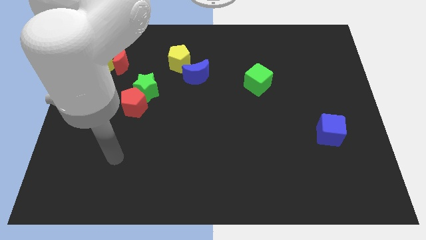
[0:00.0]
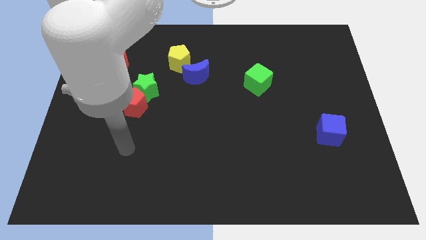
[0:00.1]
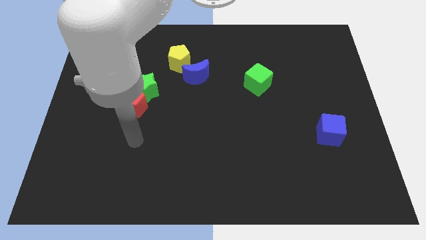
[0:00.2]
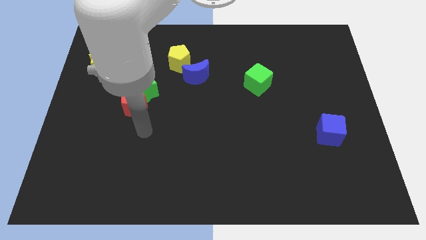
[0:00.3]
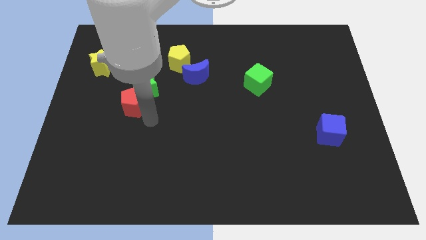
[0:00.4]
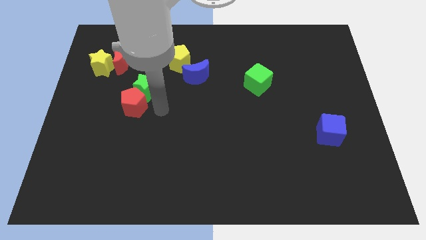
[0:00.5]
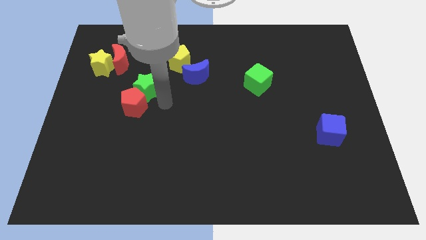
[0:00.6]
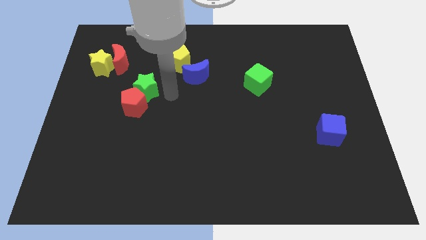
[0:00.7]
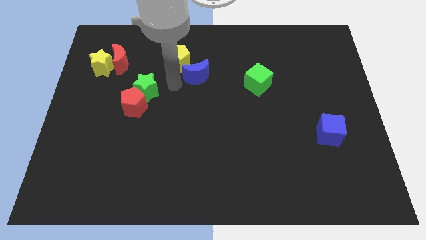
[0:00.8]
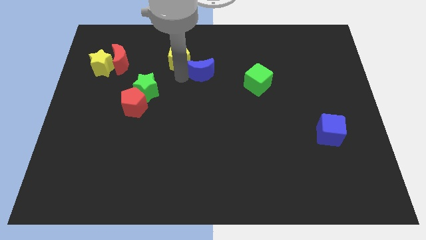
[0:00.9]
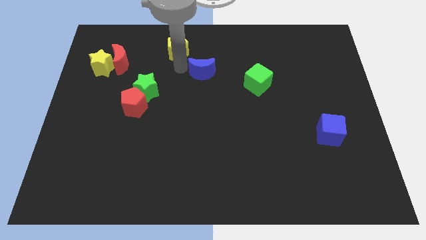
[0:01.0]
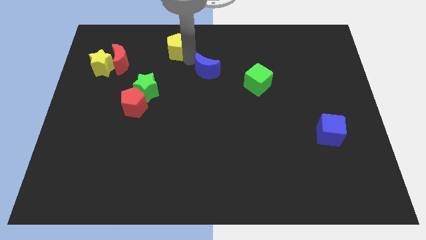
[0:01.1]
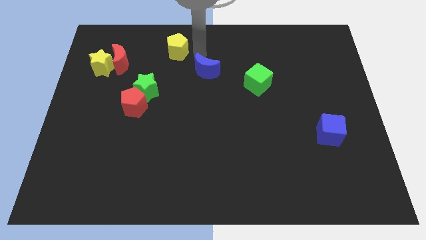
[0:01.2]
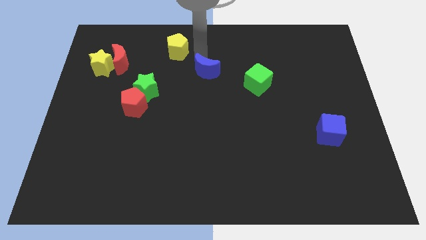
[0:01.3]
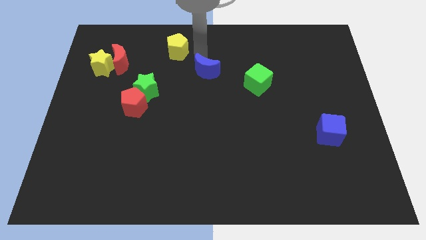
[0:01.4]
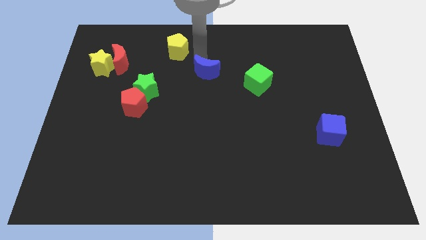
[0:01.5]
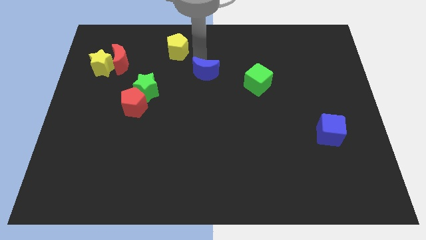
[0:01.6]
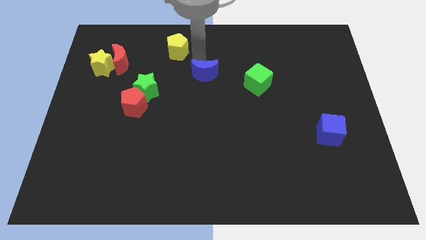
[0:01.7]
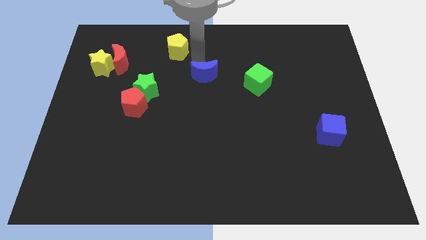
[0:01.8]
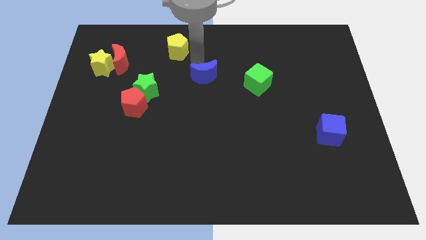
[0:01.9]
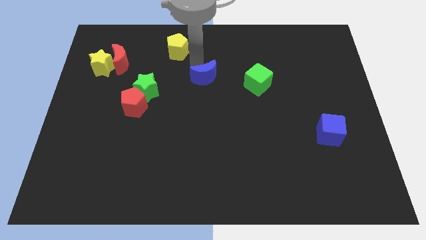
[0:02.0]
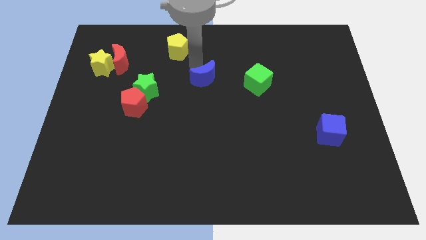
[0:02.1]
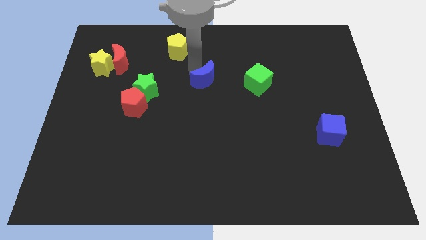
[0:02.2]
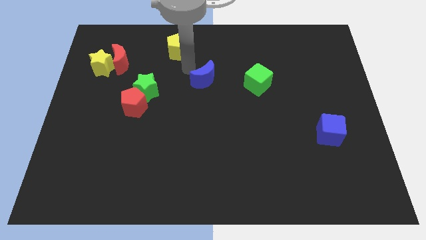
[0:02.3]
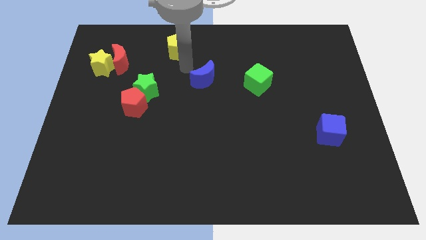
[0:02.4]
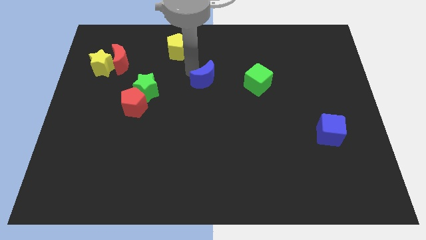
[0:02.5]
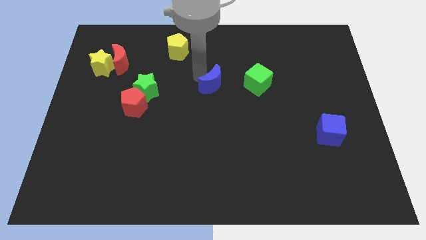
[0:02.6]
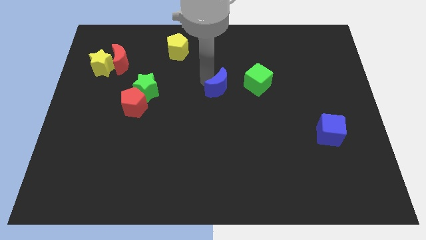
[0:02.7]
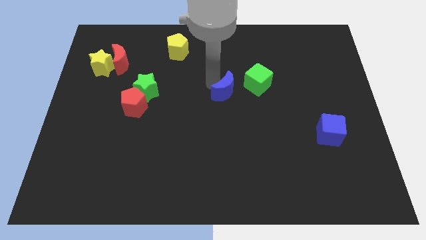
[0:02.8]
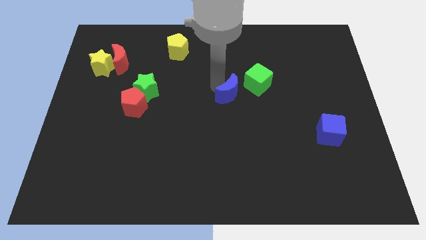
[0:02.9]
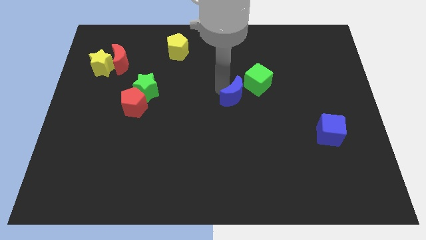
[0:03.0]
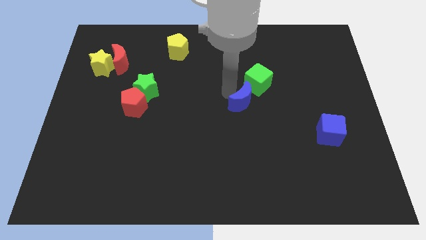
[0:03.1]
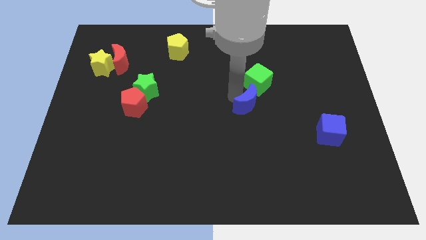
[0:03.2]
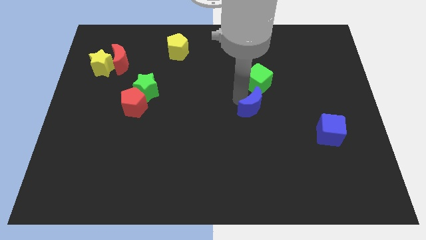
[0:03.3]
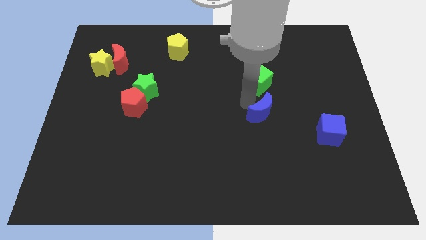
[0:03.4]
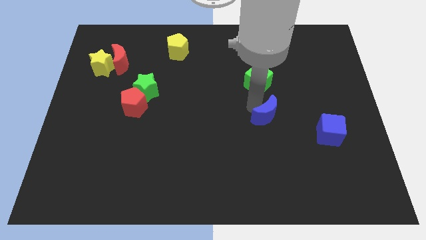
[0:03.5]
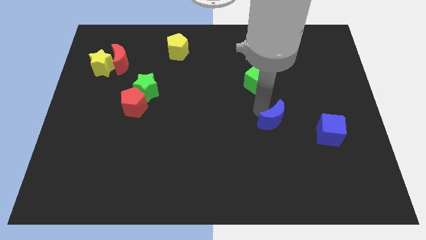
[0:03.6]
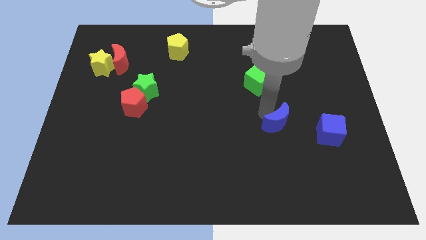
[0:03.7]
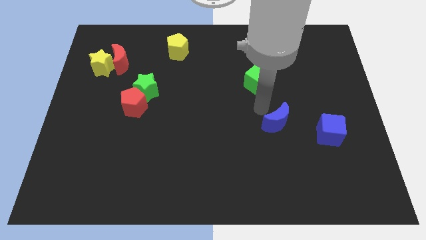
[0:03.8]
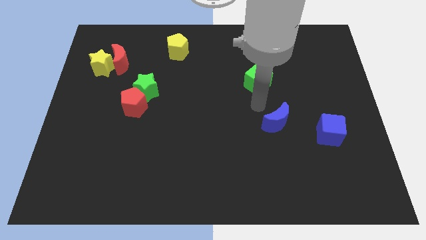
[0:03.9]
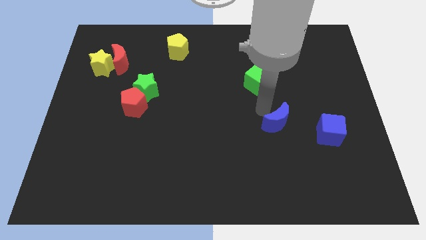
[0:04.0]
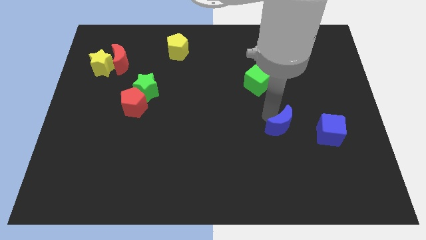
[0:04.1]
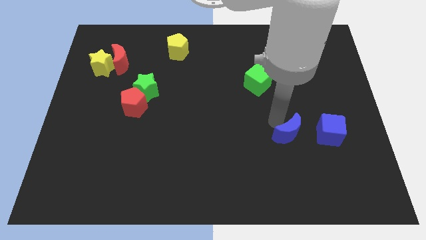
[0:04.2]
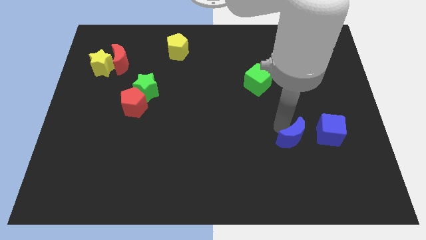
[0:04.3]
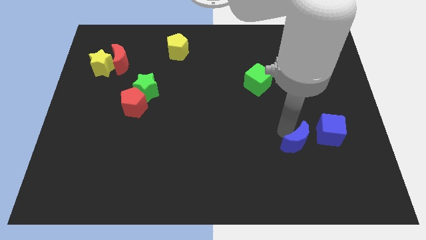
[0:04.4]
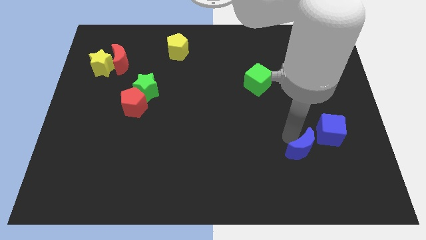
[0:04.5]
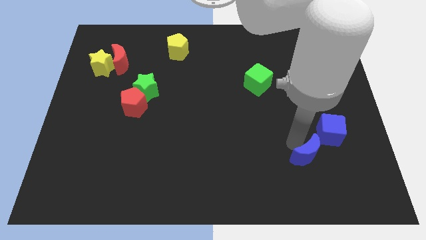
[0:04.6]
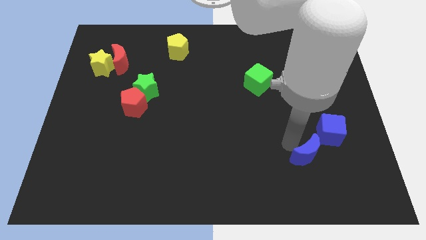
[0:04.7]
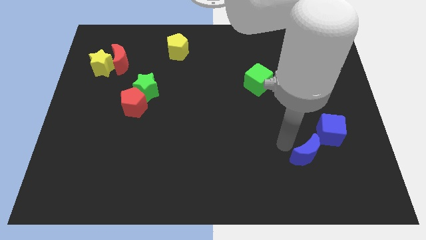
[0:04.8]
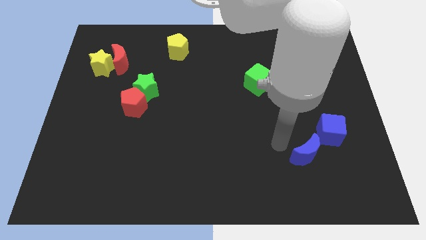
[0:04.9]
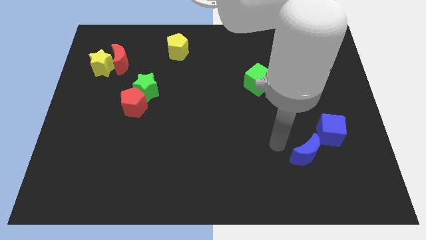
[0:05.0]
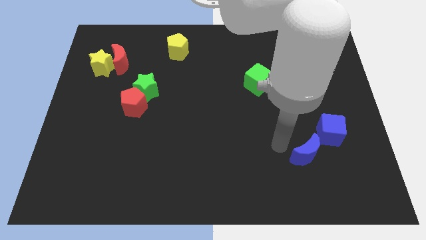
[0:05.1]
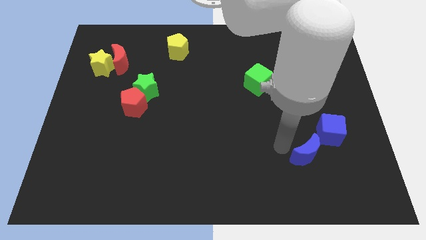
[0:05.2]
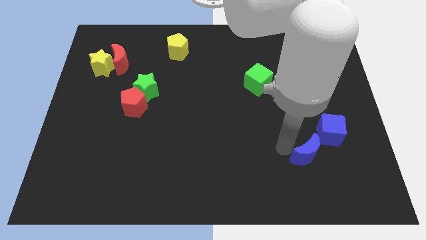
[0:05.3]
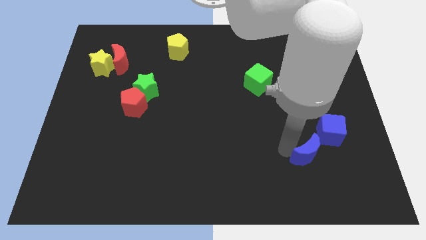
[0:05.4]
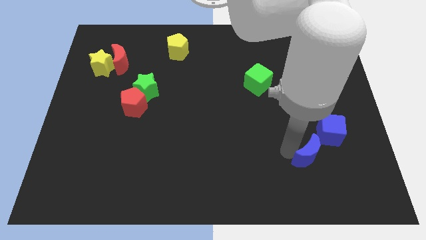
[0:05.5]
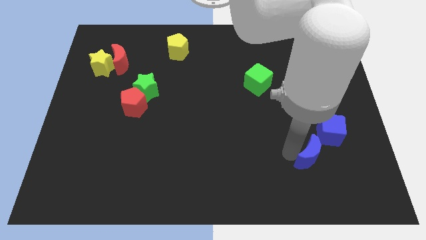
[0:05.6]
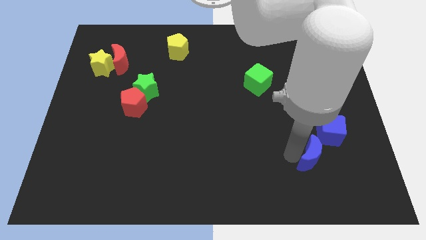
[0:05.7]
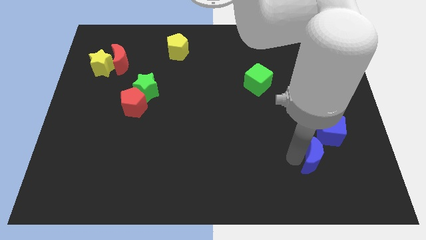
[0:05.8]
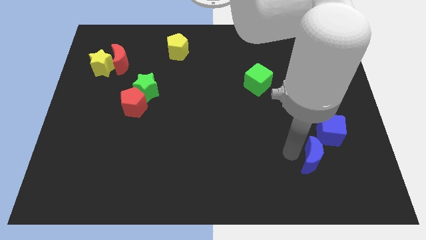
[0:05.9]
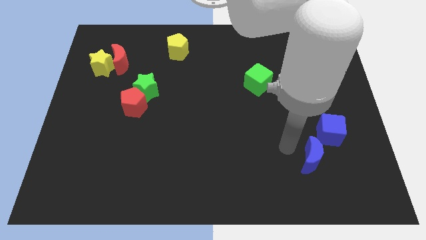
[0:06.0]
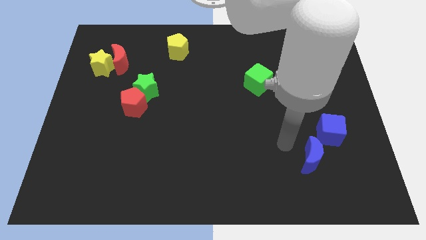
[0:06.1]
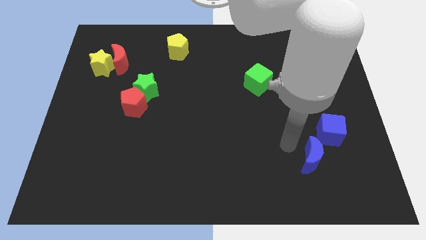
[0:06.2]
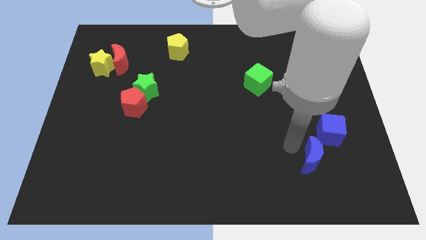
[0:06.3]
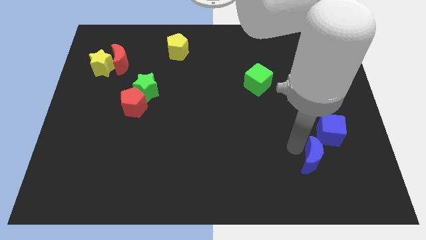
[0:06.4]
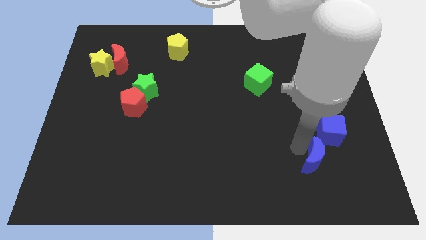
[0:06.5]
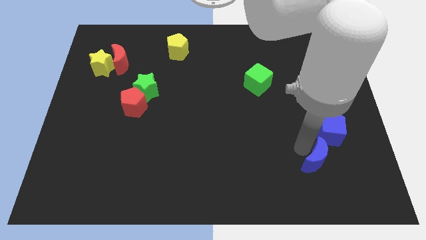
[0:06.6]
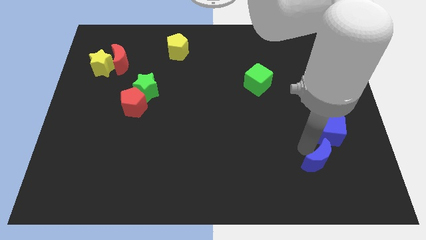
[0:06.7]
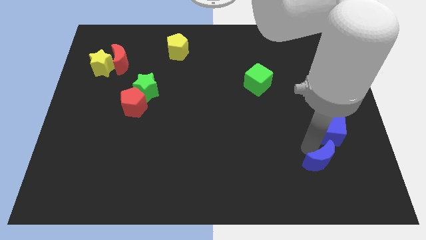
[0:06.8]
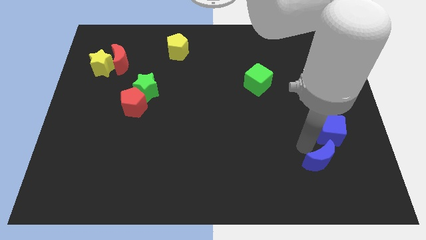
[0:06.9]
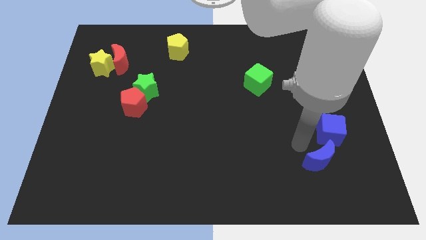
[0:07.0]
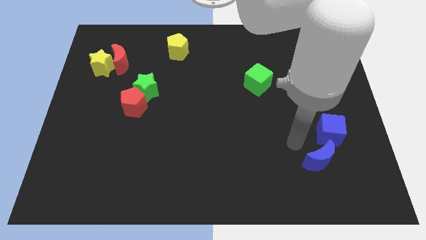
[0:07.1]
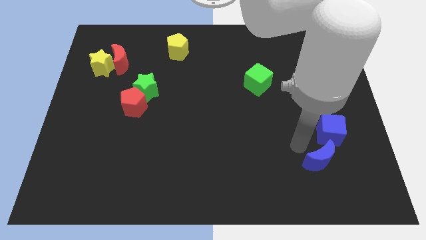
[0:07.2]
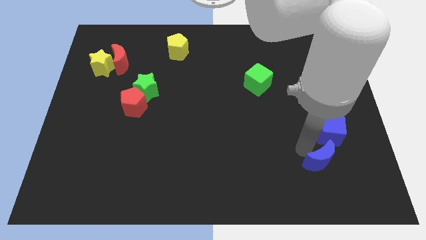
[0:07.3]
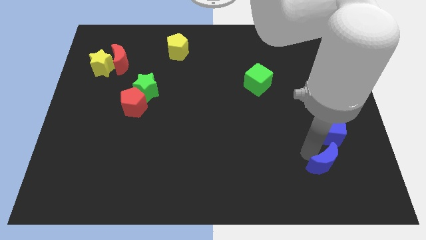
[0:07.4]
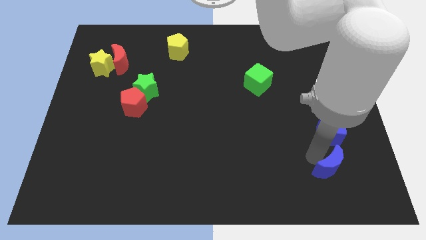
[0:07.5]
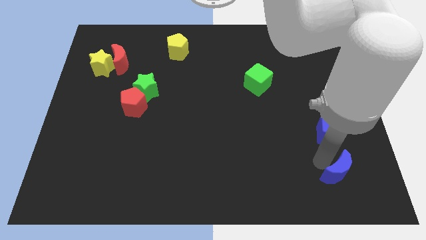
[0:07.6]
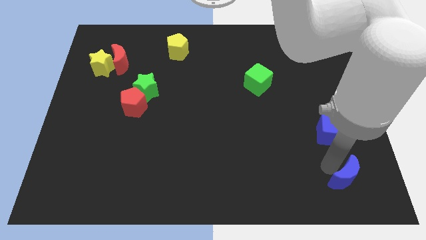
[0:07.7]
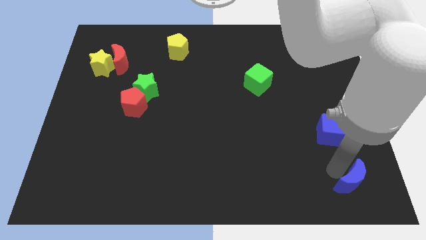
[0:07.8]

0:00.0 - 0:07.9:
slide the blue moon to the bottom right corner
